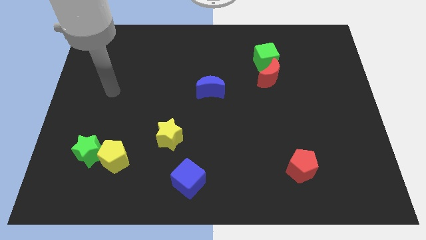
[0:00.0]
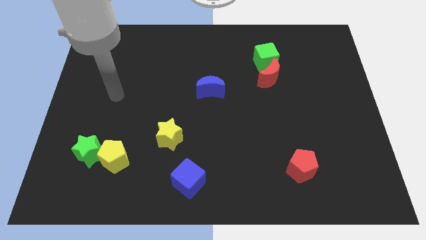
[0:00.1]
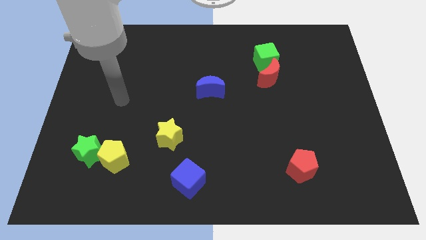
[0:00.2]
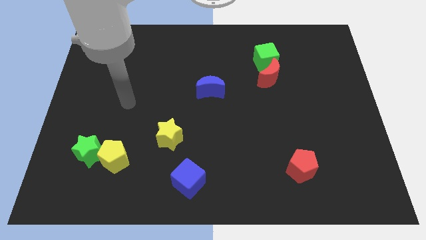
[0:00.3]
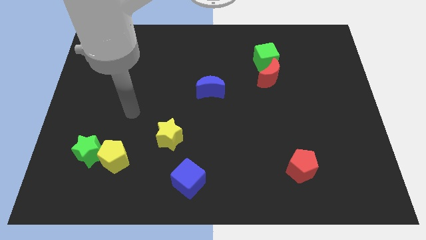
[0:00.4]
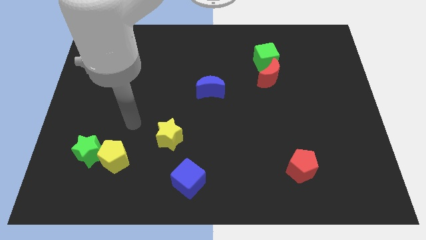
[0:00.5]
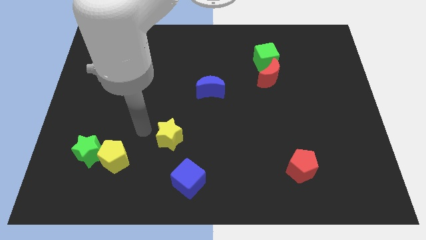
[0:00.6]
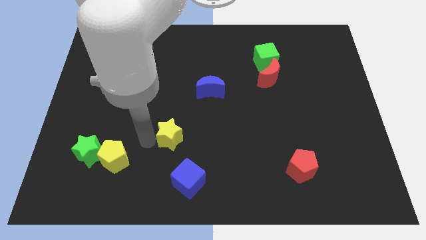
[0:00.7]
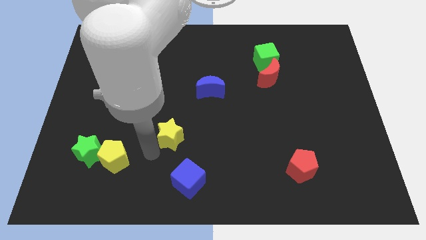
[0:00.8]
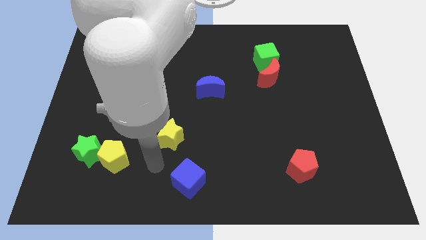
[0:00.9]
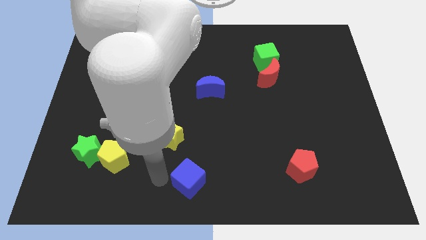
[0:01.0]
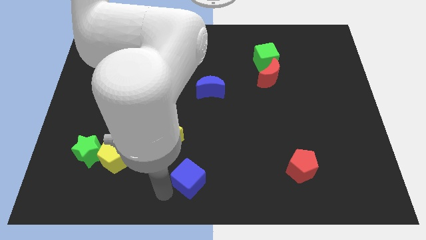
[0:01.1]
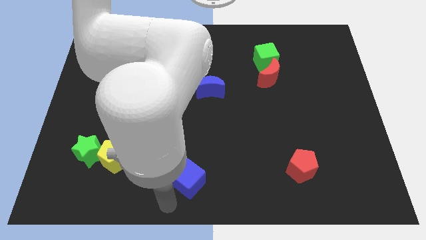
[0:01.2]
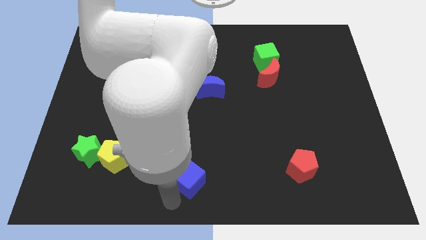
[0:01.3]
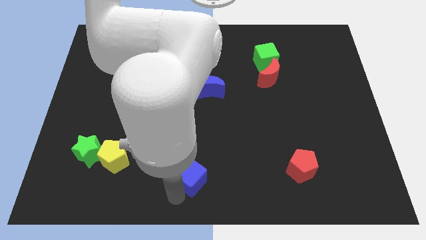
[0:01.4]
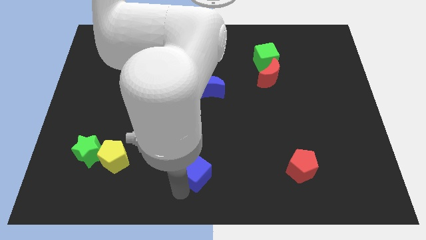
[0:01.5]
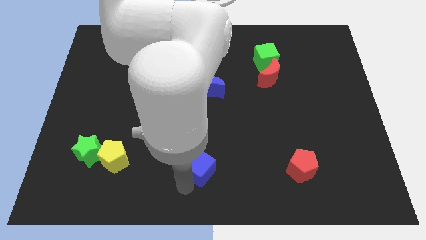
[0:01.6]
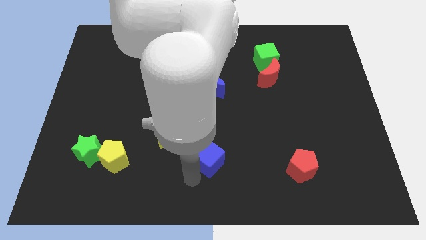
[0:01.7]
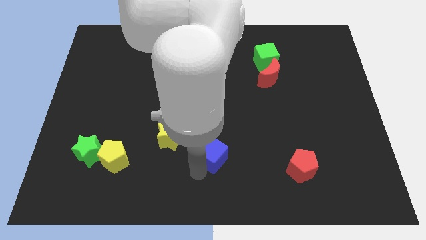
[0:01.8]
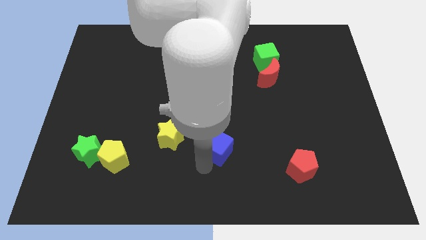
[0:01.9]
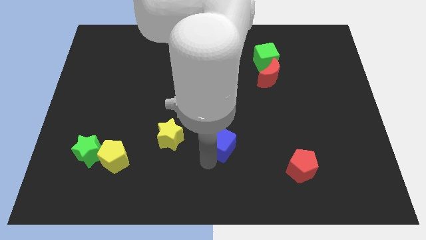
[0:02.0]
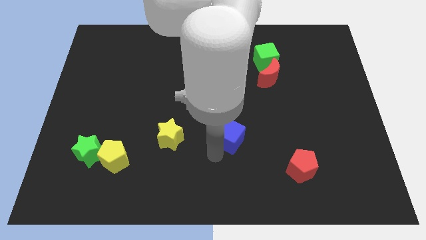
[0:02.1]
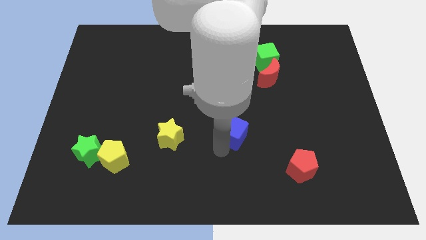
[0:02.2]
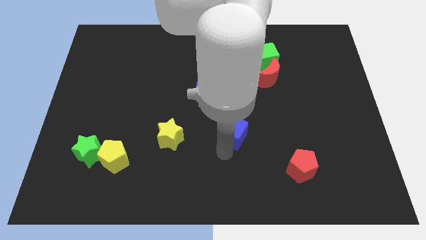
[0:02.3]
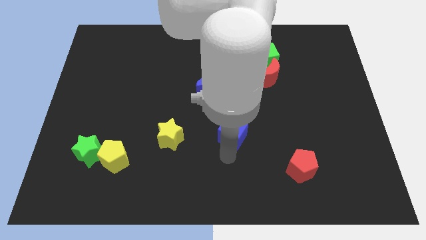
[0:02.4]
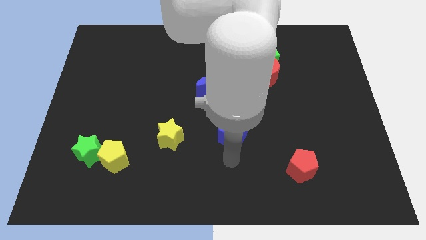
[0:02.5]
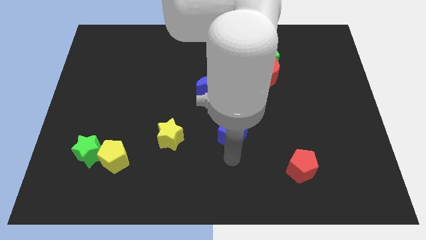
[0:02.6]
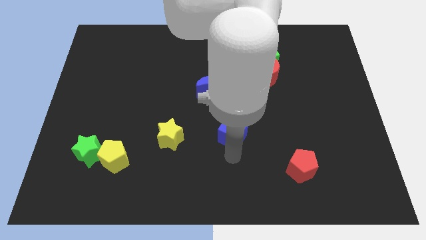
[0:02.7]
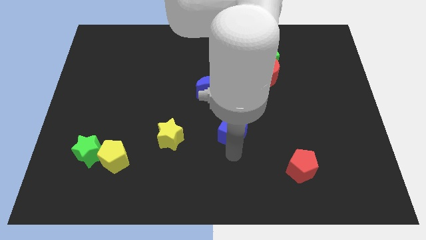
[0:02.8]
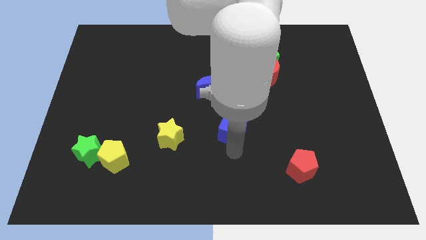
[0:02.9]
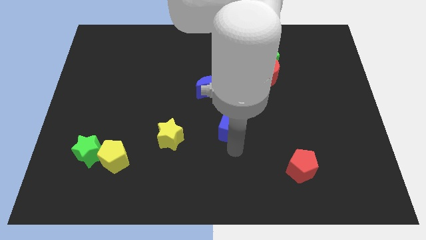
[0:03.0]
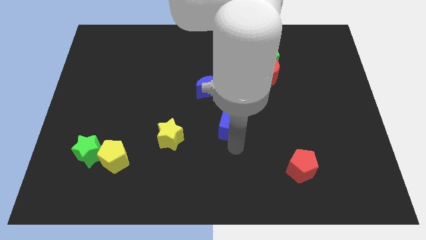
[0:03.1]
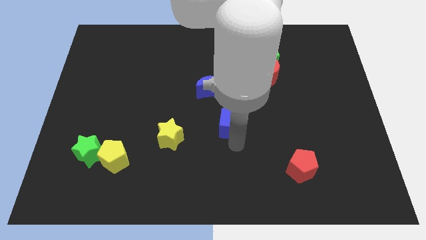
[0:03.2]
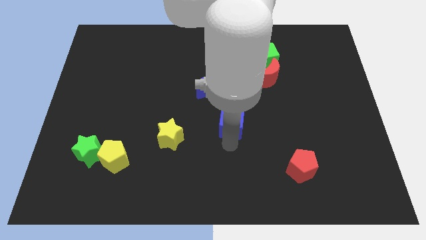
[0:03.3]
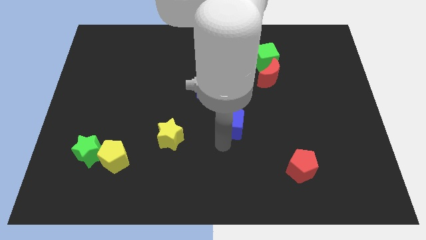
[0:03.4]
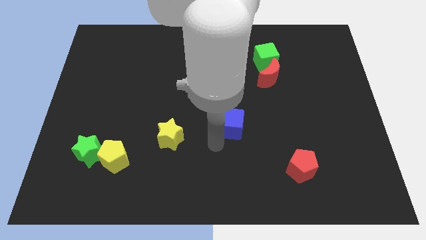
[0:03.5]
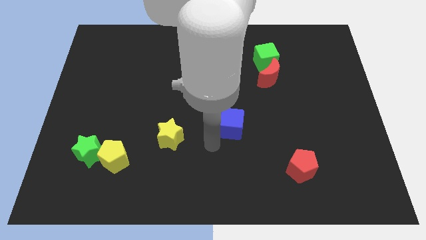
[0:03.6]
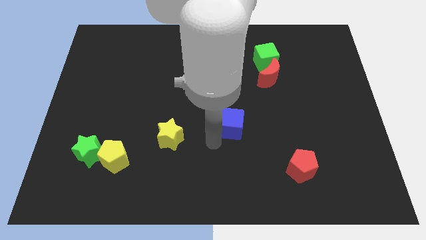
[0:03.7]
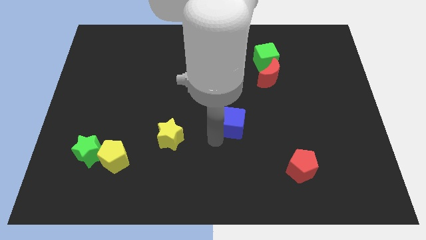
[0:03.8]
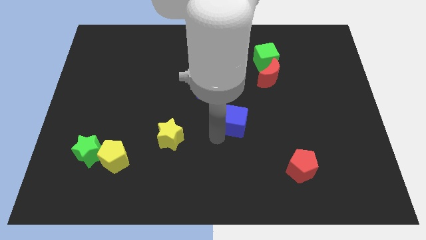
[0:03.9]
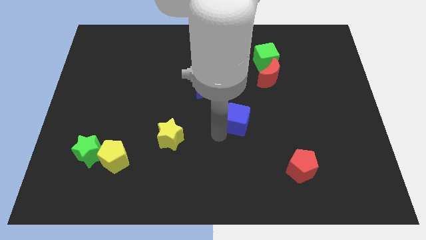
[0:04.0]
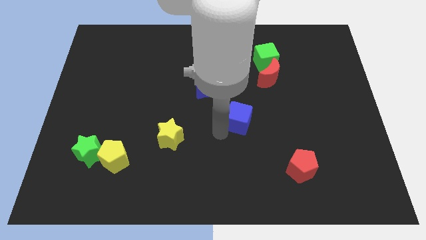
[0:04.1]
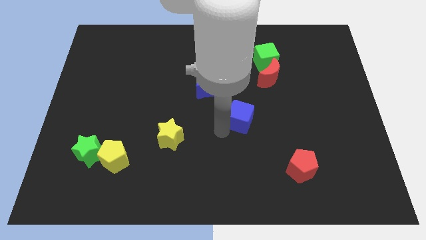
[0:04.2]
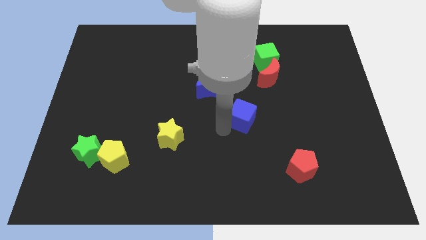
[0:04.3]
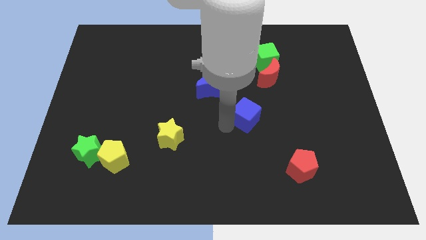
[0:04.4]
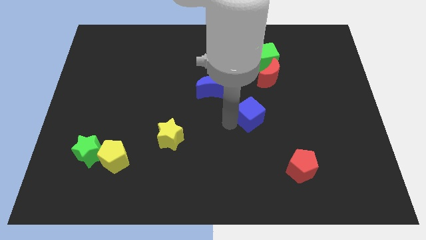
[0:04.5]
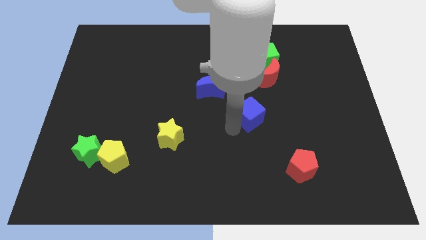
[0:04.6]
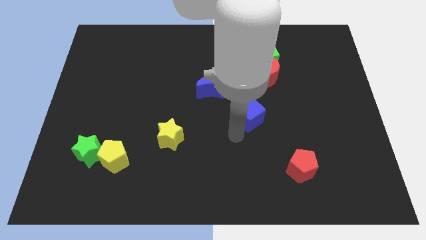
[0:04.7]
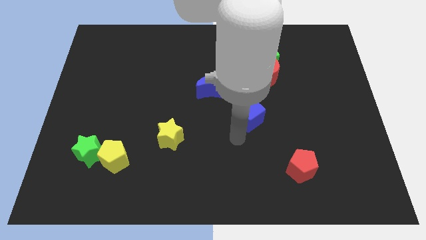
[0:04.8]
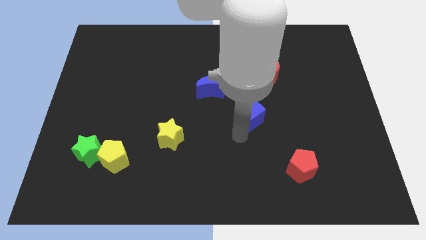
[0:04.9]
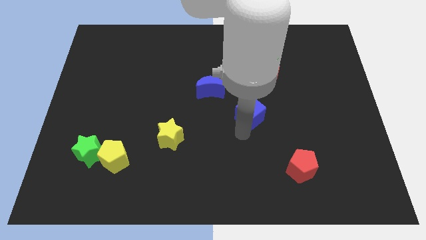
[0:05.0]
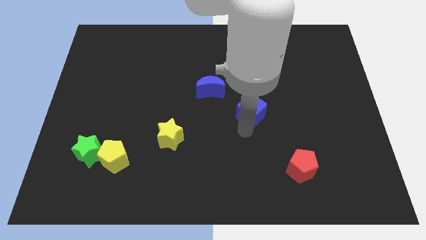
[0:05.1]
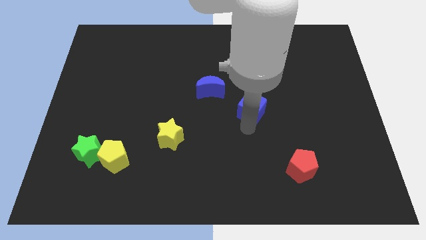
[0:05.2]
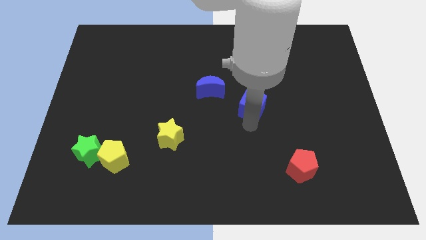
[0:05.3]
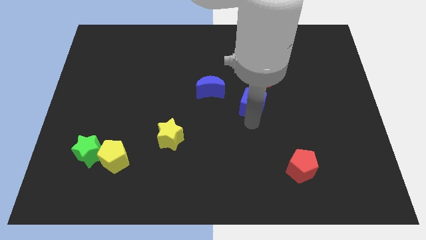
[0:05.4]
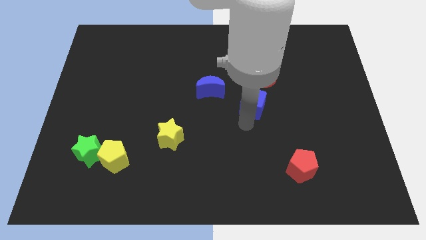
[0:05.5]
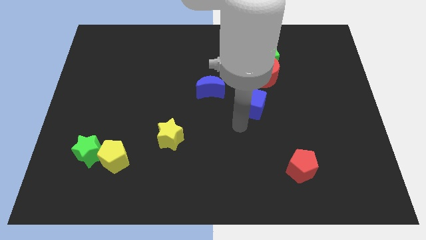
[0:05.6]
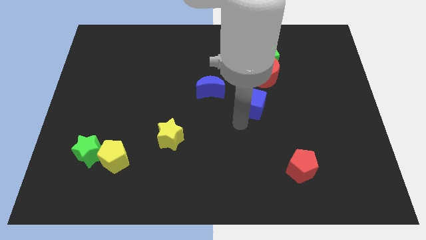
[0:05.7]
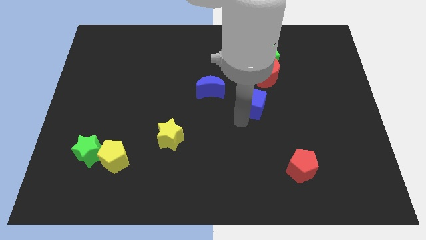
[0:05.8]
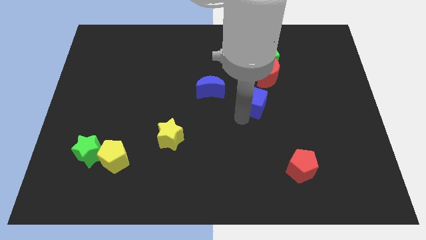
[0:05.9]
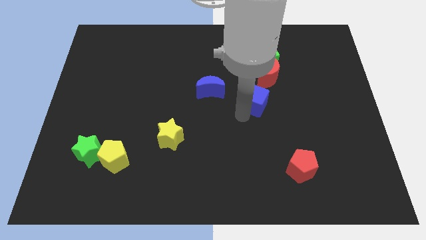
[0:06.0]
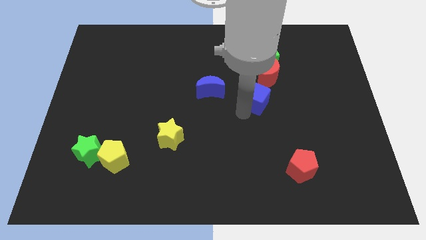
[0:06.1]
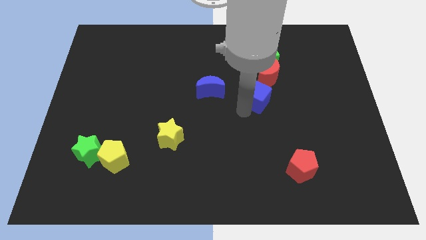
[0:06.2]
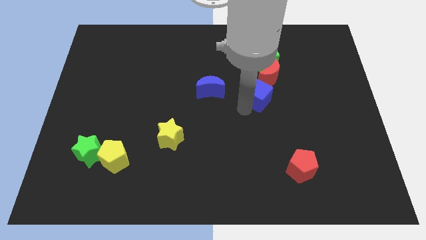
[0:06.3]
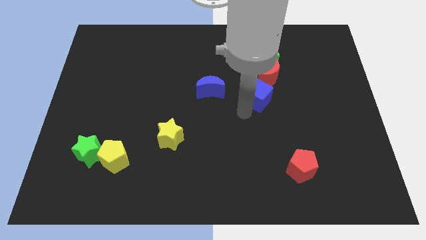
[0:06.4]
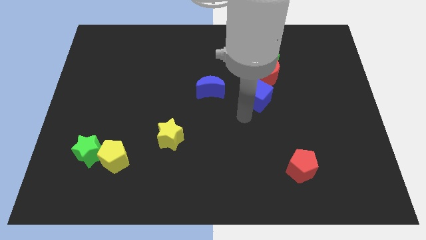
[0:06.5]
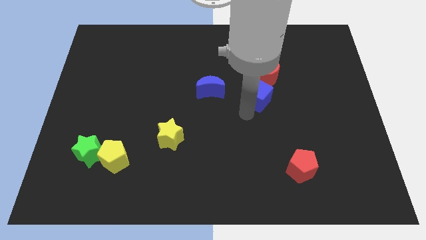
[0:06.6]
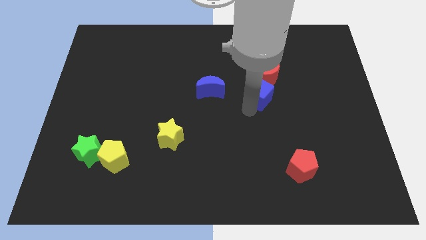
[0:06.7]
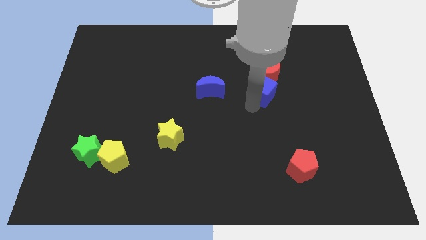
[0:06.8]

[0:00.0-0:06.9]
put the blue cube next to the red moon

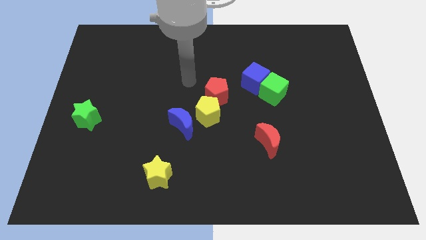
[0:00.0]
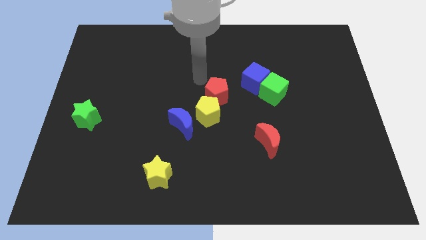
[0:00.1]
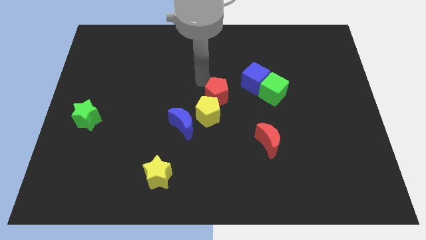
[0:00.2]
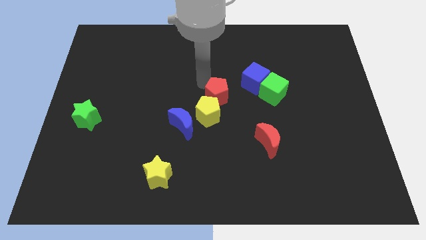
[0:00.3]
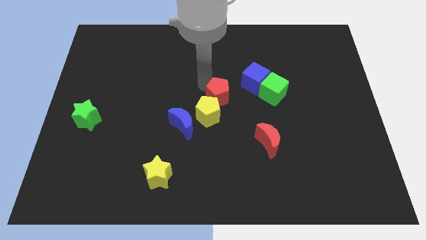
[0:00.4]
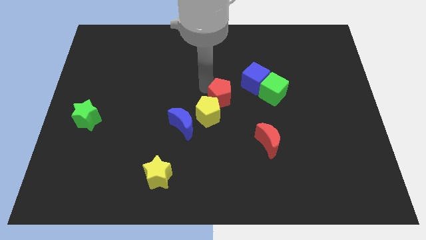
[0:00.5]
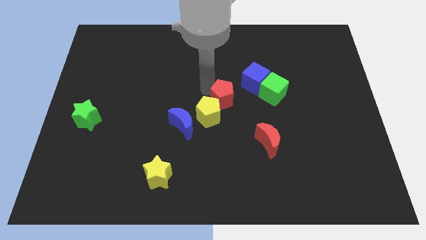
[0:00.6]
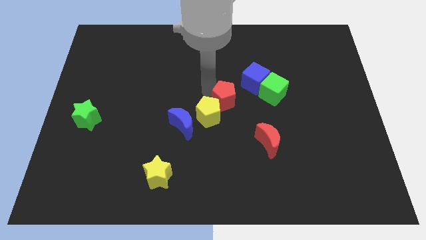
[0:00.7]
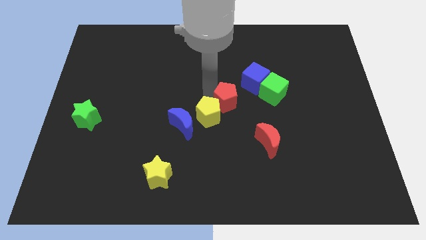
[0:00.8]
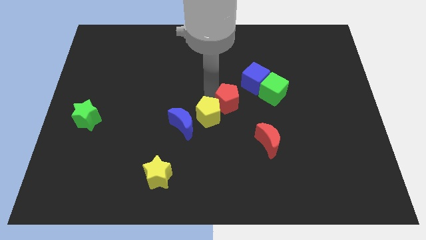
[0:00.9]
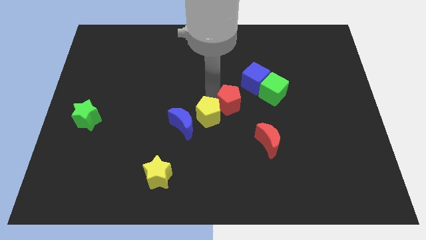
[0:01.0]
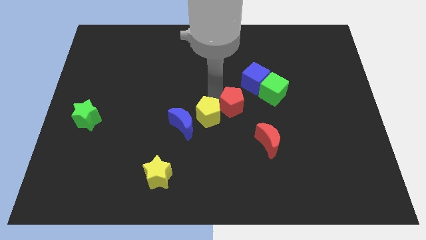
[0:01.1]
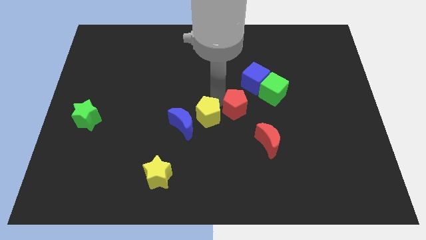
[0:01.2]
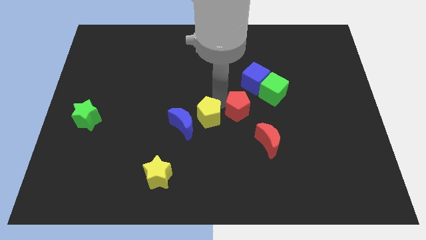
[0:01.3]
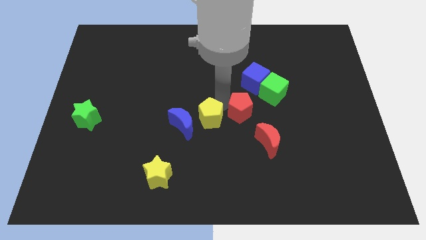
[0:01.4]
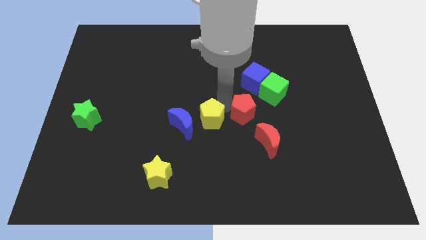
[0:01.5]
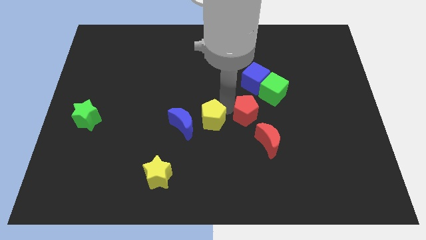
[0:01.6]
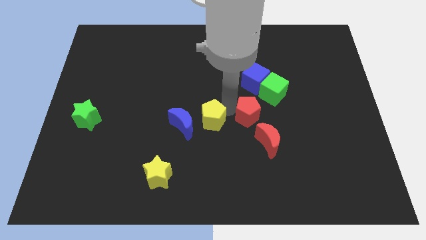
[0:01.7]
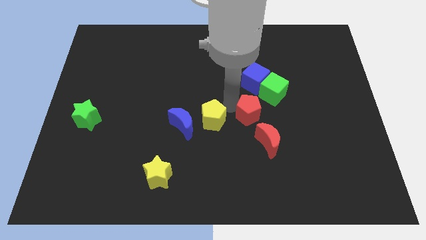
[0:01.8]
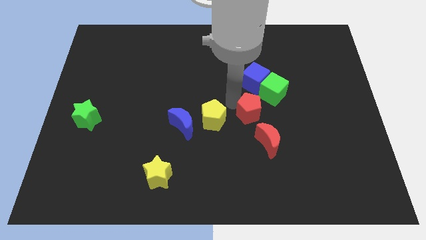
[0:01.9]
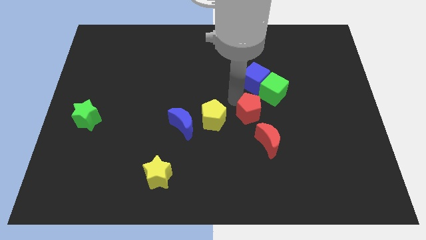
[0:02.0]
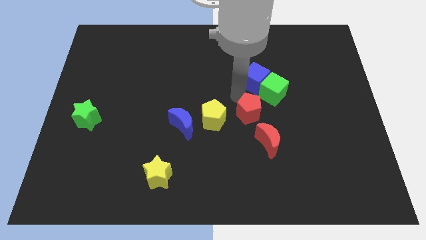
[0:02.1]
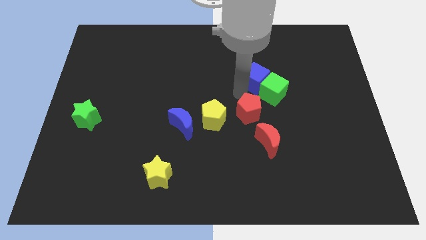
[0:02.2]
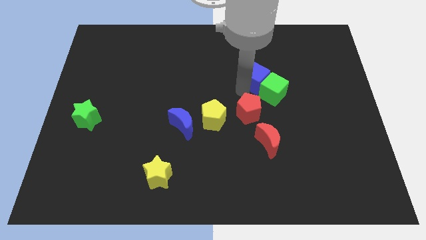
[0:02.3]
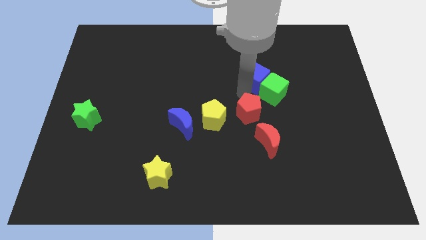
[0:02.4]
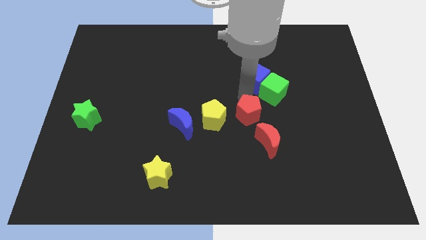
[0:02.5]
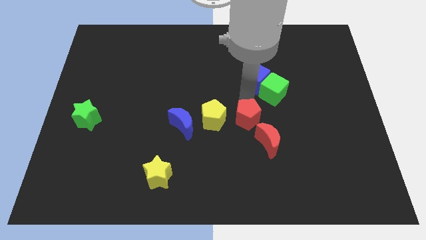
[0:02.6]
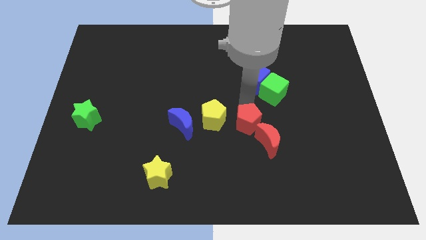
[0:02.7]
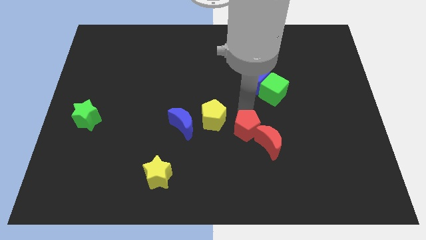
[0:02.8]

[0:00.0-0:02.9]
put the red pentagon to the red moon
